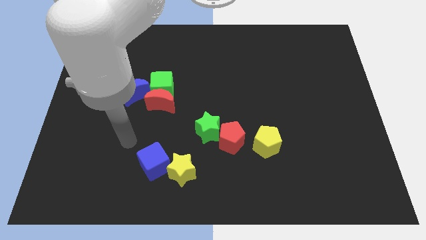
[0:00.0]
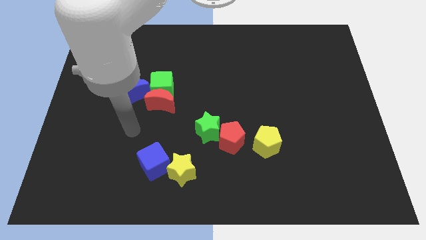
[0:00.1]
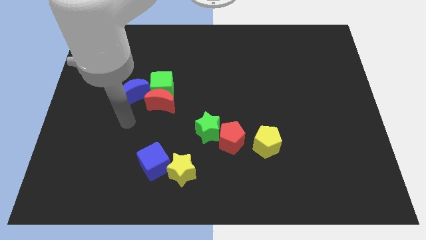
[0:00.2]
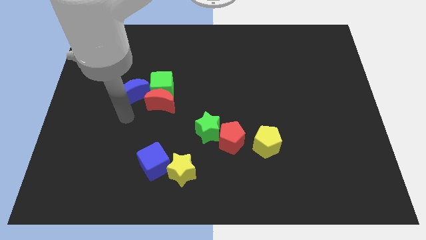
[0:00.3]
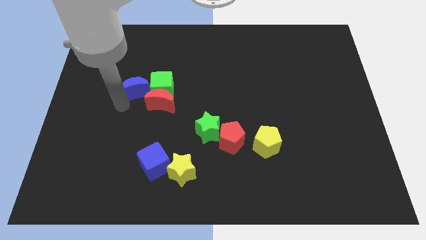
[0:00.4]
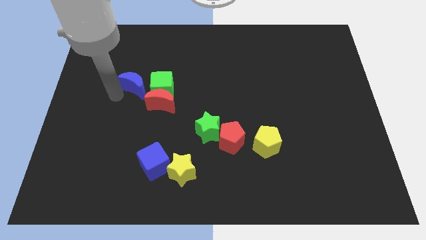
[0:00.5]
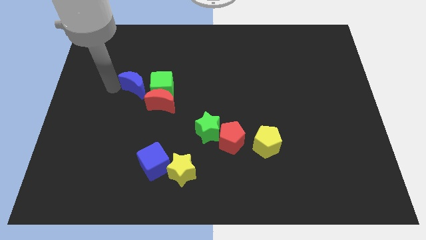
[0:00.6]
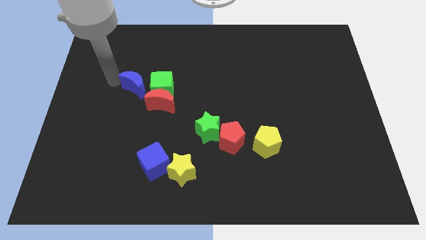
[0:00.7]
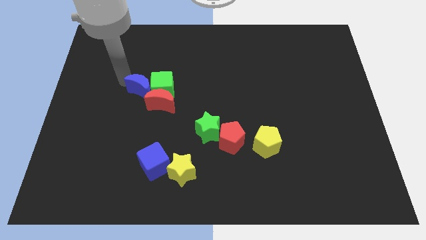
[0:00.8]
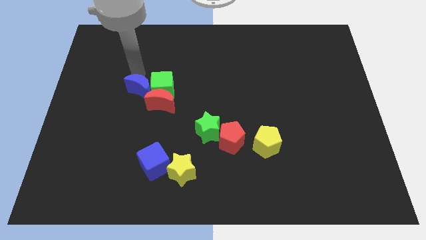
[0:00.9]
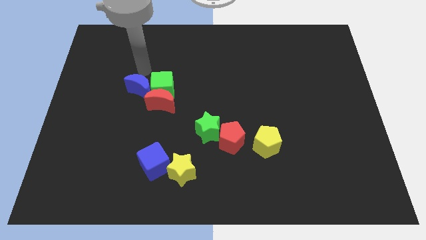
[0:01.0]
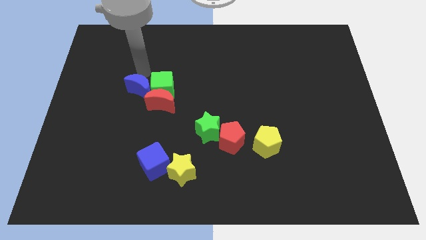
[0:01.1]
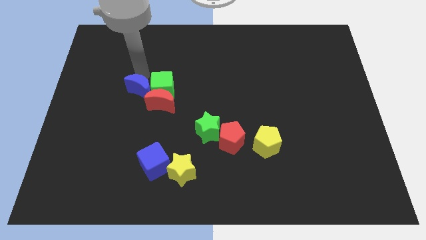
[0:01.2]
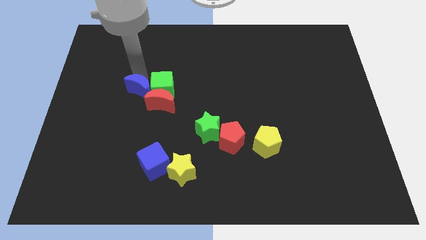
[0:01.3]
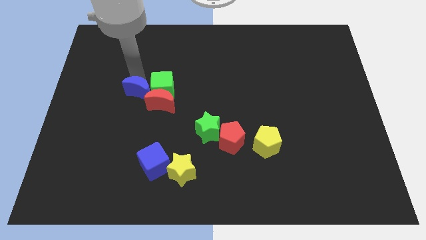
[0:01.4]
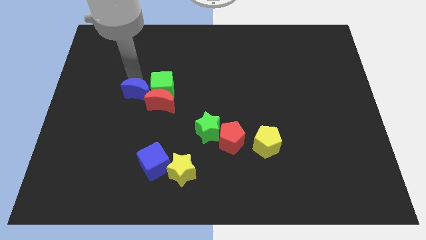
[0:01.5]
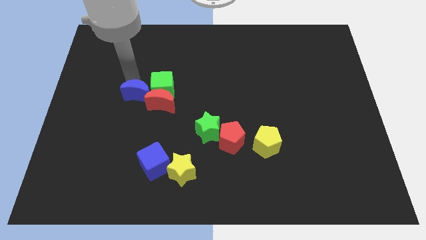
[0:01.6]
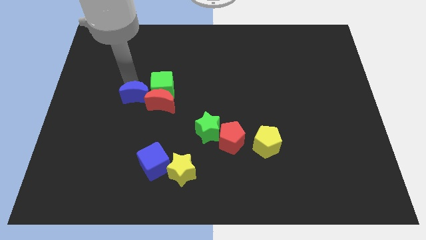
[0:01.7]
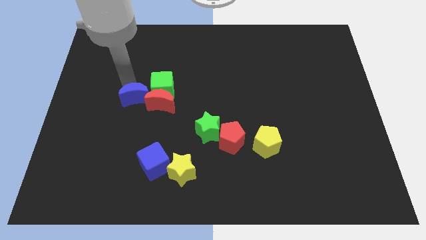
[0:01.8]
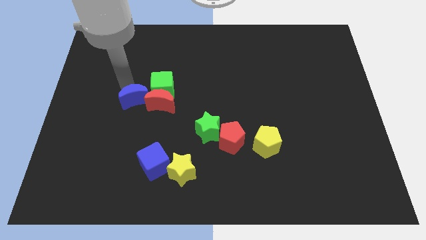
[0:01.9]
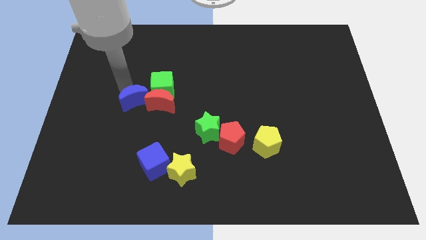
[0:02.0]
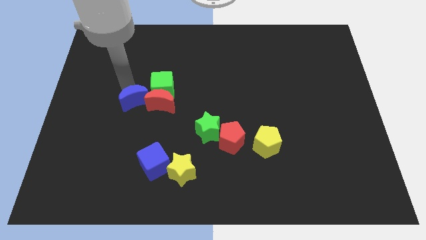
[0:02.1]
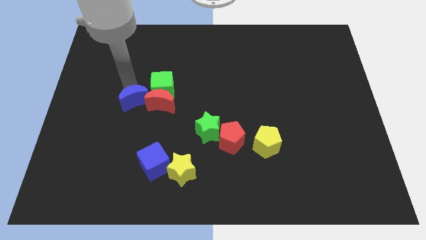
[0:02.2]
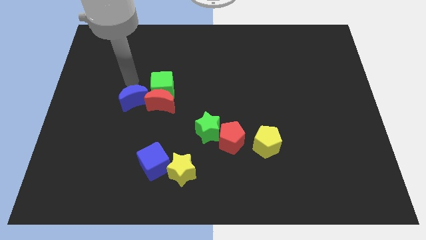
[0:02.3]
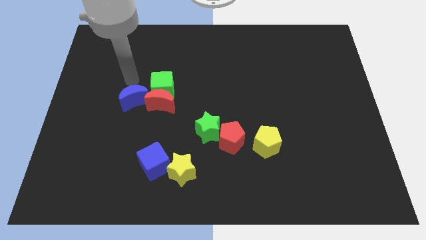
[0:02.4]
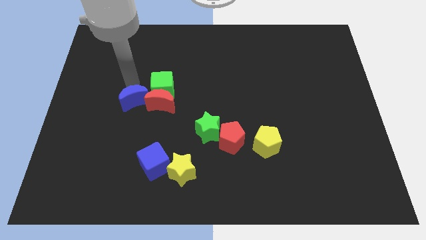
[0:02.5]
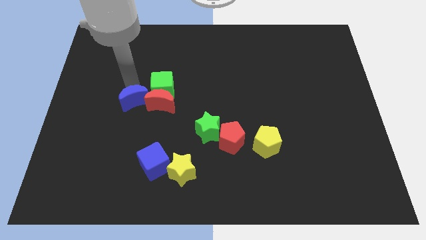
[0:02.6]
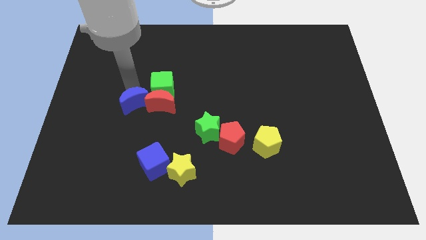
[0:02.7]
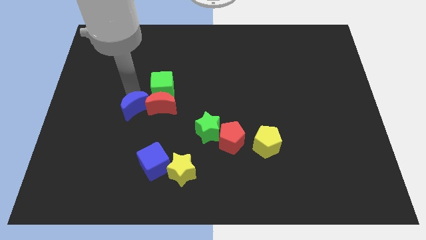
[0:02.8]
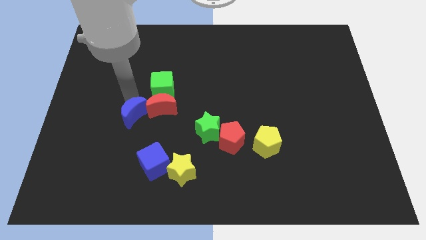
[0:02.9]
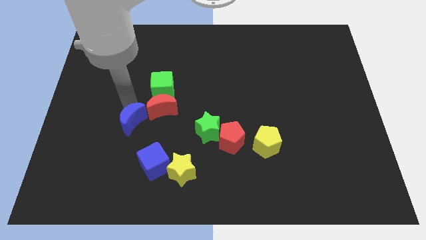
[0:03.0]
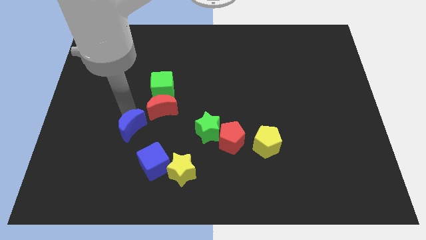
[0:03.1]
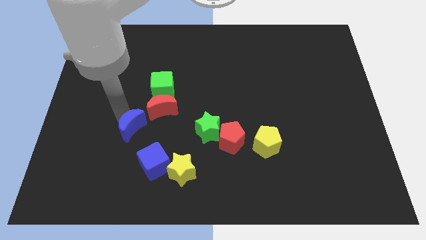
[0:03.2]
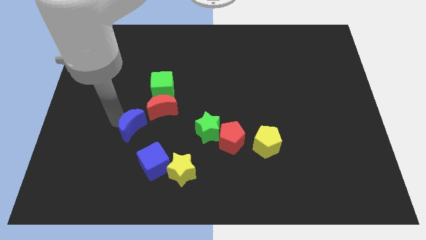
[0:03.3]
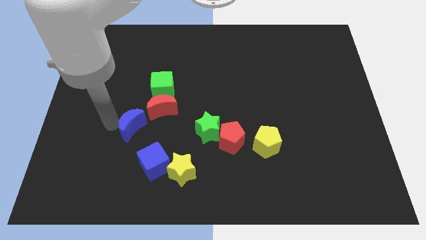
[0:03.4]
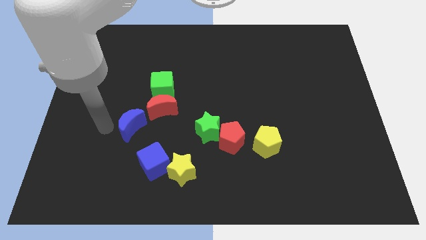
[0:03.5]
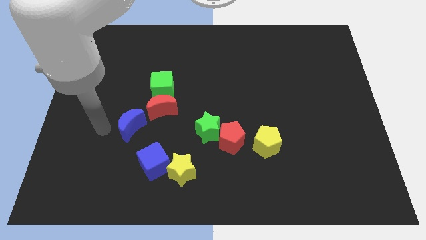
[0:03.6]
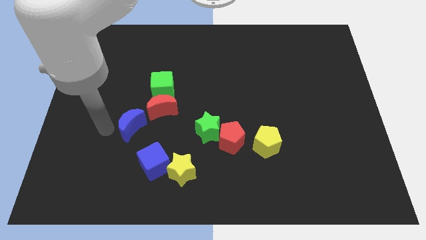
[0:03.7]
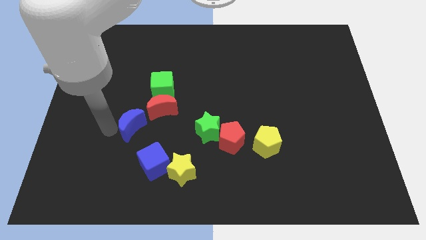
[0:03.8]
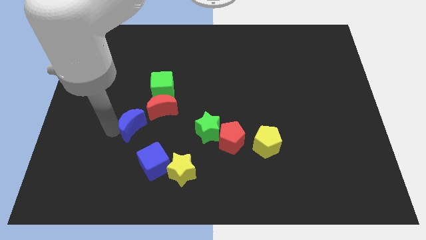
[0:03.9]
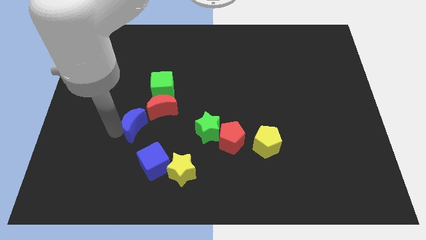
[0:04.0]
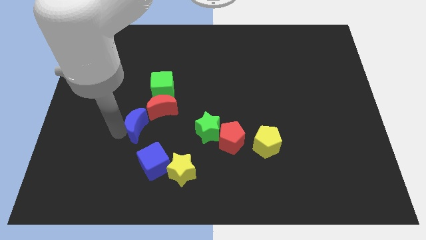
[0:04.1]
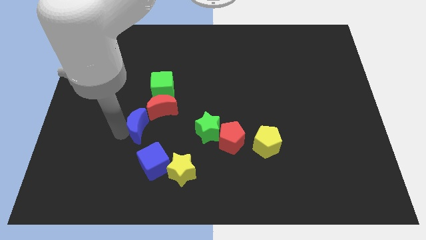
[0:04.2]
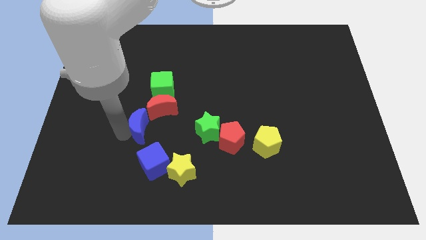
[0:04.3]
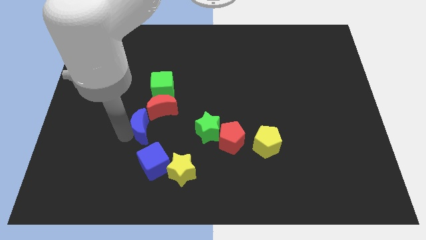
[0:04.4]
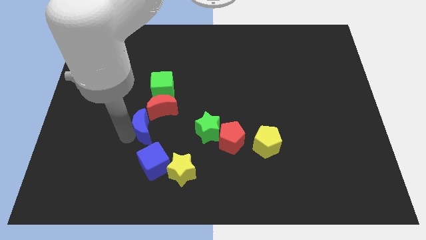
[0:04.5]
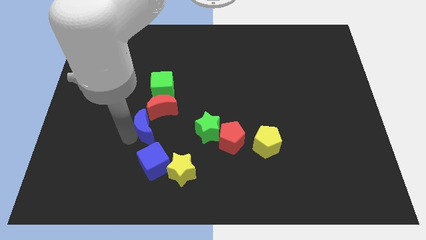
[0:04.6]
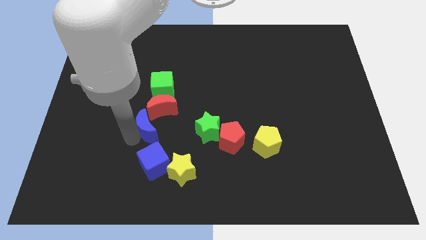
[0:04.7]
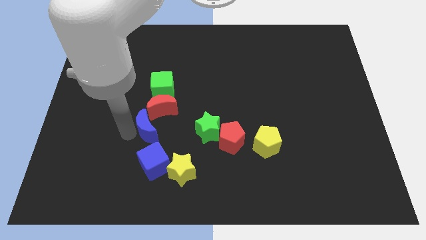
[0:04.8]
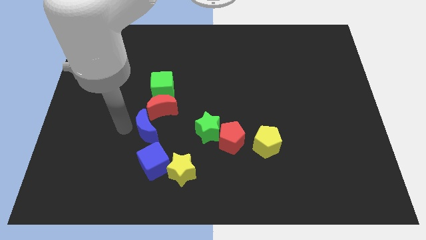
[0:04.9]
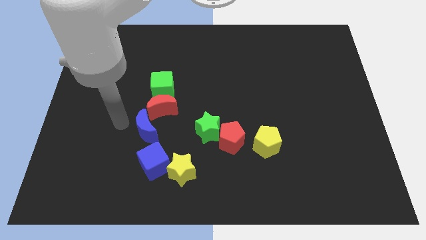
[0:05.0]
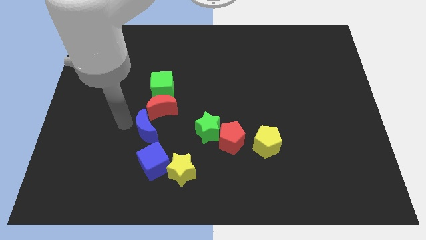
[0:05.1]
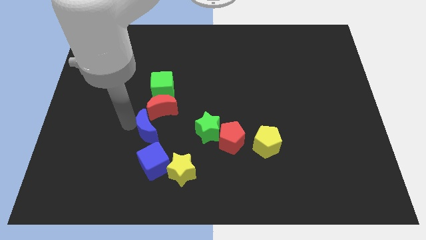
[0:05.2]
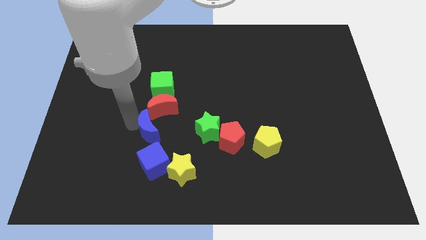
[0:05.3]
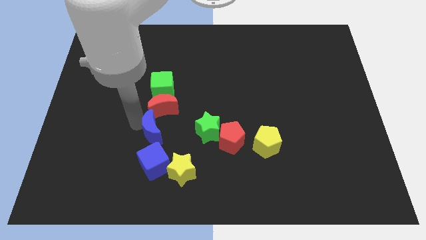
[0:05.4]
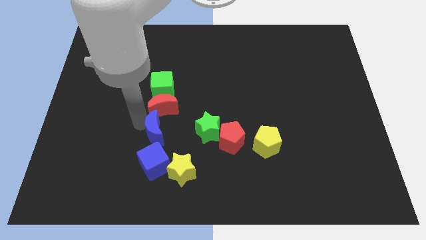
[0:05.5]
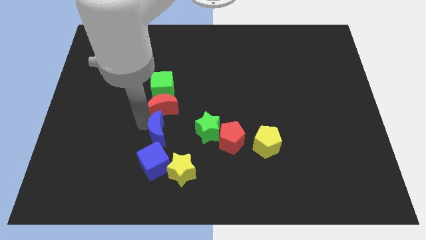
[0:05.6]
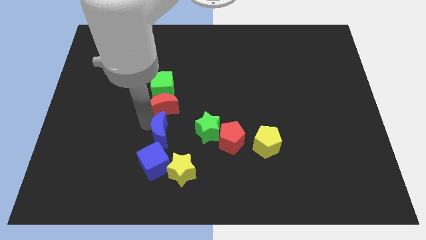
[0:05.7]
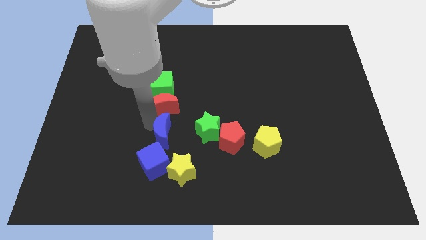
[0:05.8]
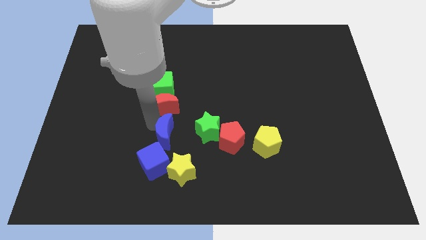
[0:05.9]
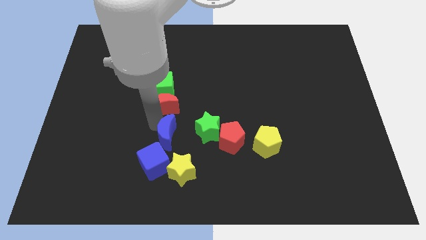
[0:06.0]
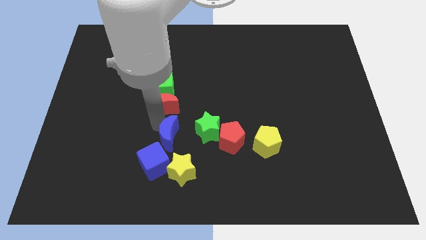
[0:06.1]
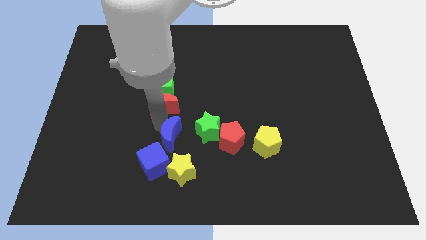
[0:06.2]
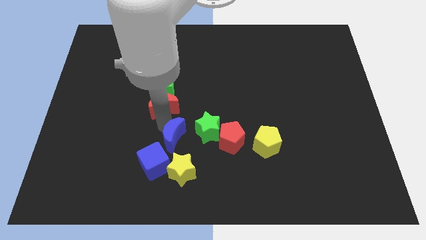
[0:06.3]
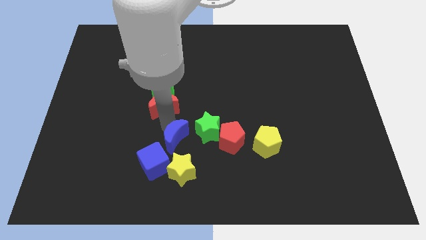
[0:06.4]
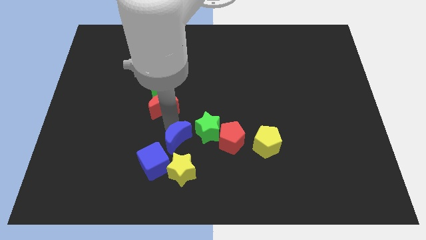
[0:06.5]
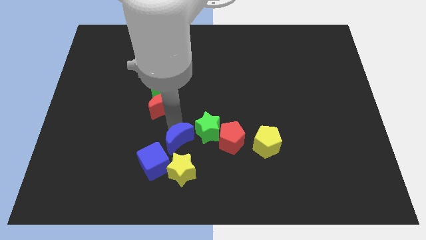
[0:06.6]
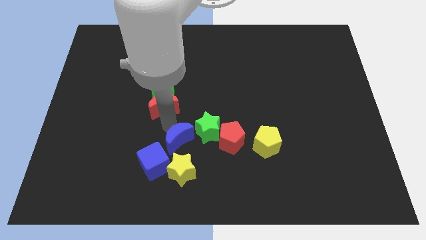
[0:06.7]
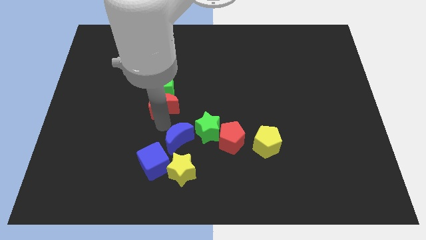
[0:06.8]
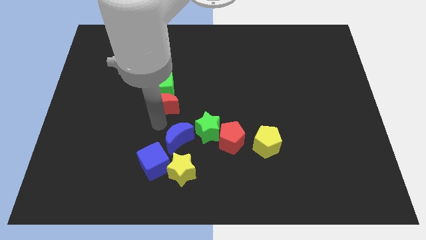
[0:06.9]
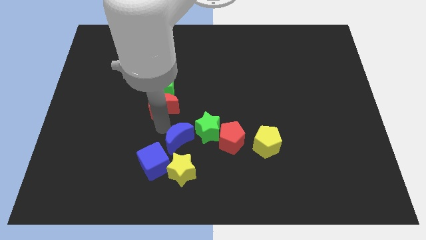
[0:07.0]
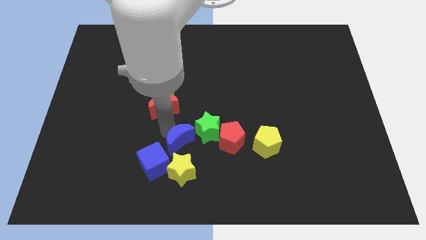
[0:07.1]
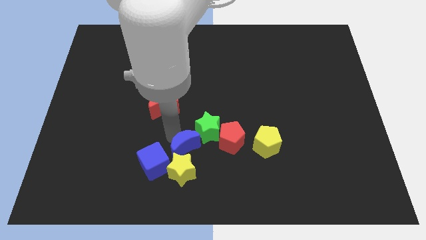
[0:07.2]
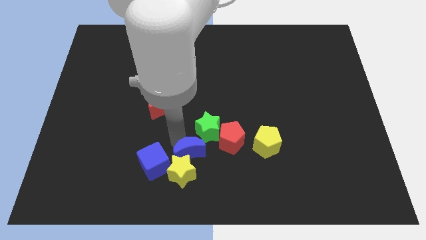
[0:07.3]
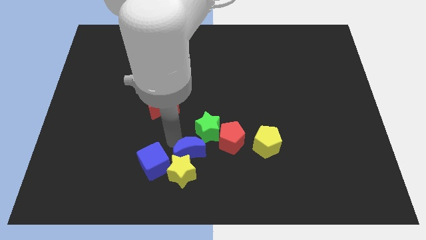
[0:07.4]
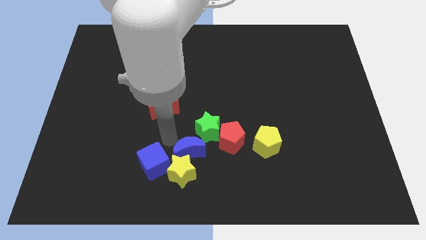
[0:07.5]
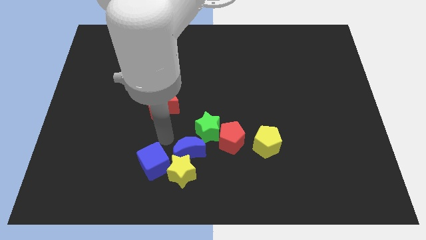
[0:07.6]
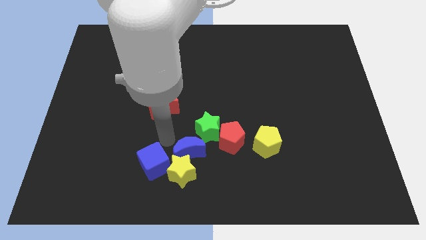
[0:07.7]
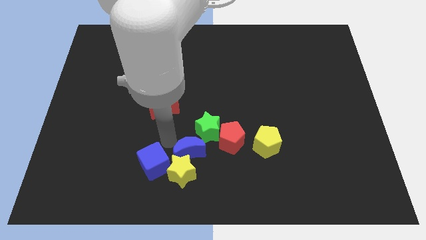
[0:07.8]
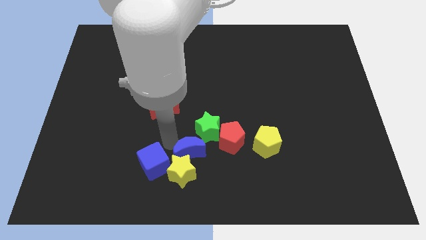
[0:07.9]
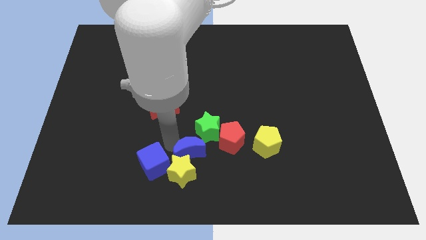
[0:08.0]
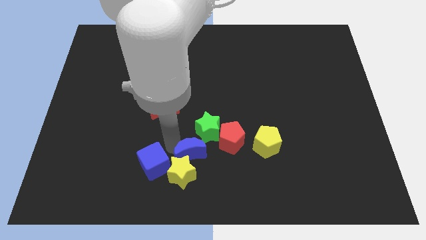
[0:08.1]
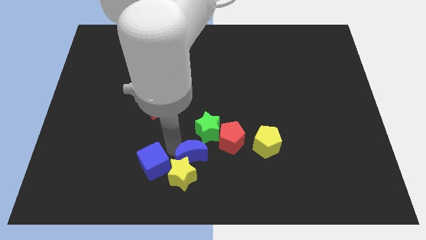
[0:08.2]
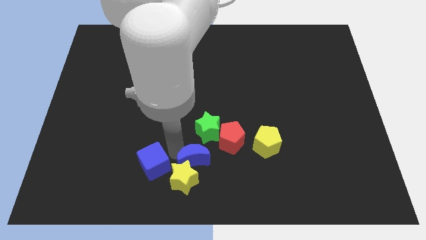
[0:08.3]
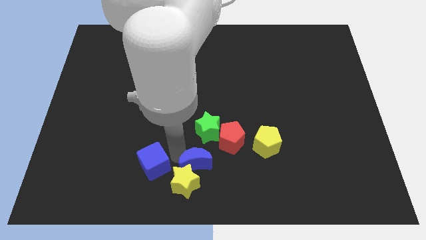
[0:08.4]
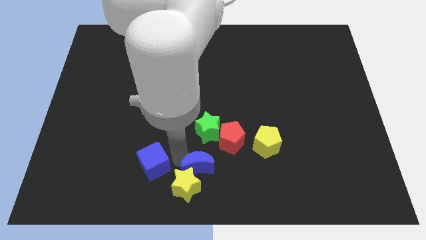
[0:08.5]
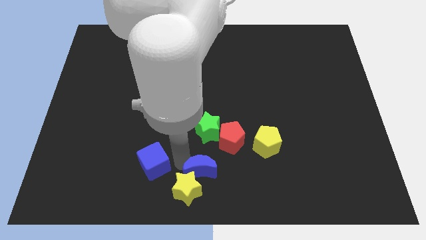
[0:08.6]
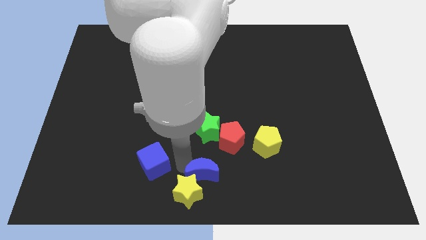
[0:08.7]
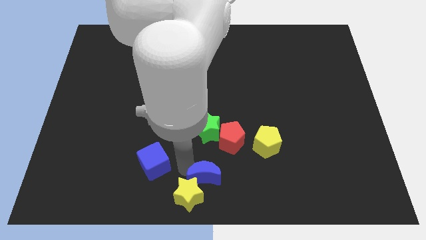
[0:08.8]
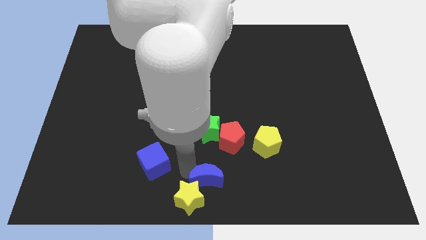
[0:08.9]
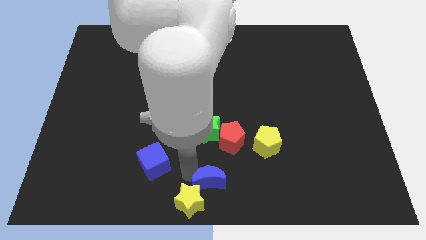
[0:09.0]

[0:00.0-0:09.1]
move the blue moon to the bottom side of the red pentagon
